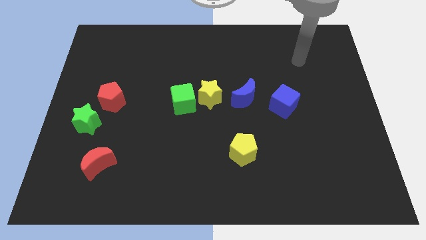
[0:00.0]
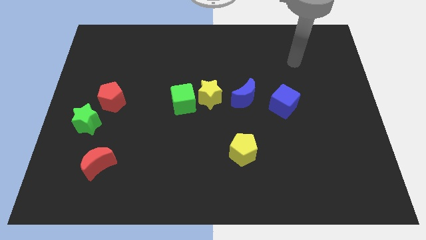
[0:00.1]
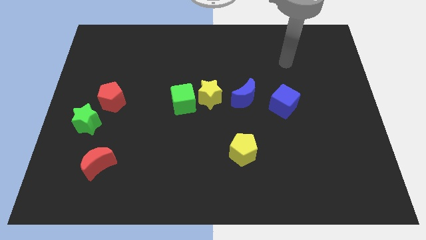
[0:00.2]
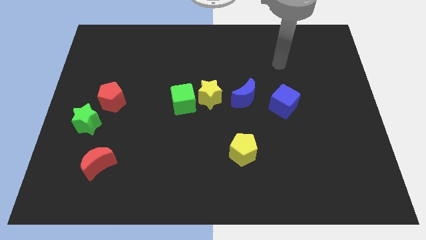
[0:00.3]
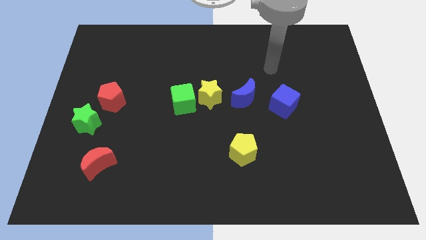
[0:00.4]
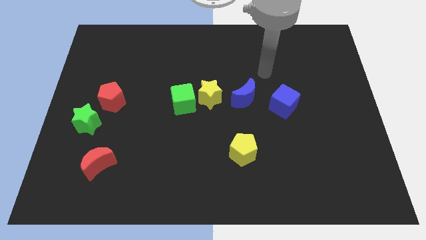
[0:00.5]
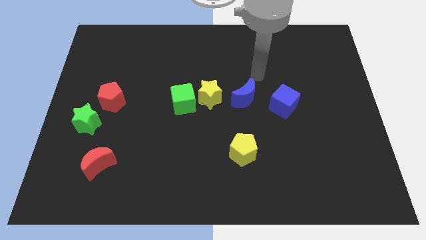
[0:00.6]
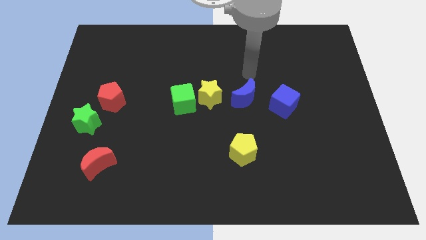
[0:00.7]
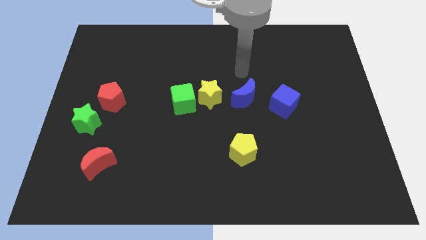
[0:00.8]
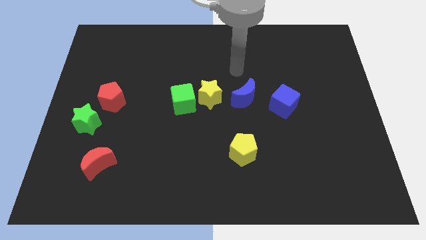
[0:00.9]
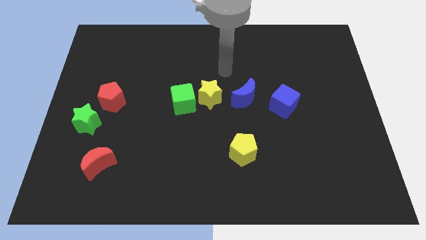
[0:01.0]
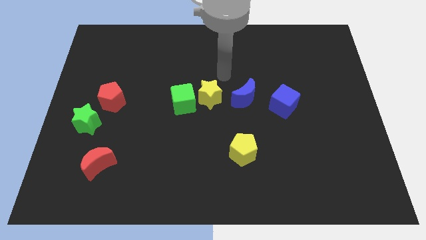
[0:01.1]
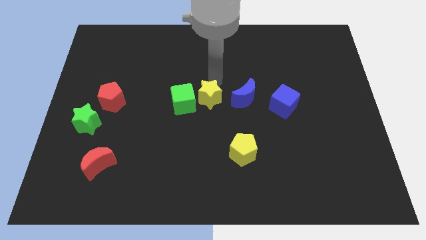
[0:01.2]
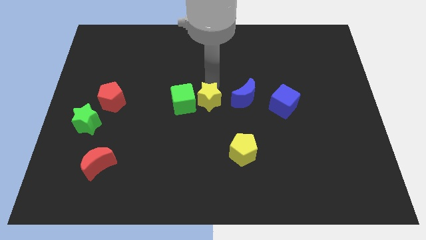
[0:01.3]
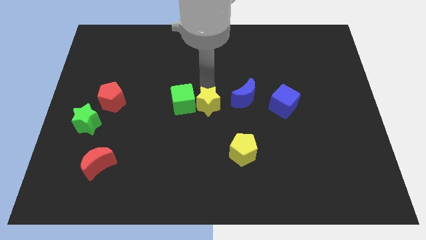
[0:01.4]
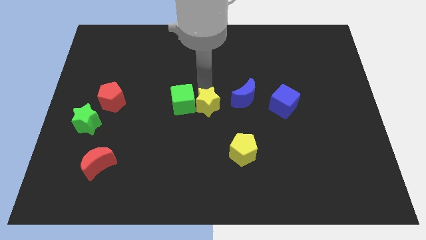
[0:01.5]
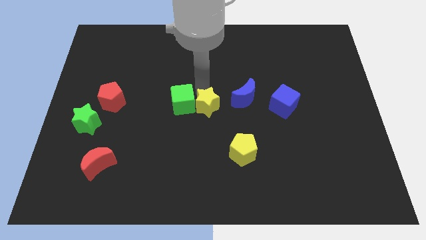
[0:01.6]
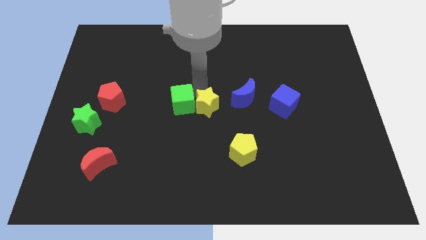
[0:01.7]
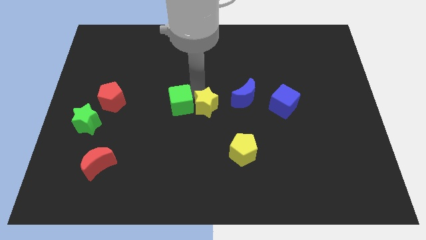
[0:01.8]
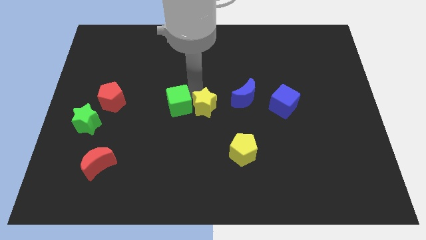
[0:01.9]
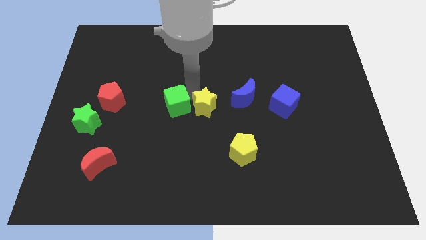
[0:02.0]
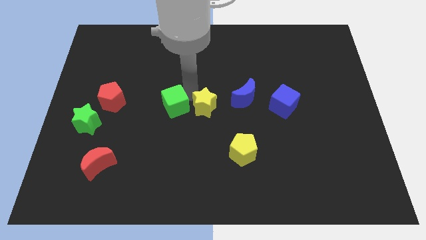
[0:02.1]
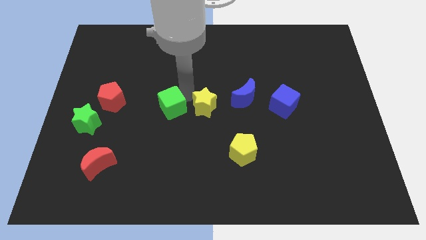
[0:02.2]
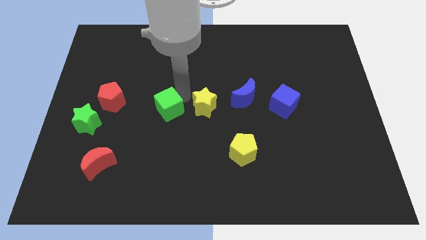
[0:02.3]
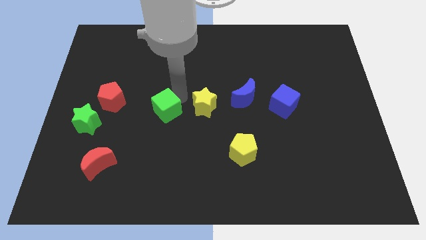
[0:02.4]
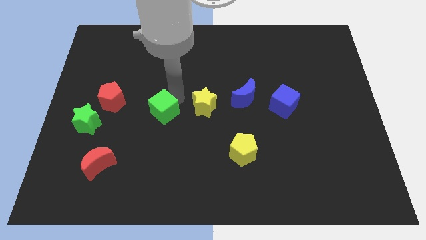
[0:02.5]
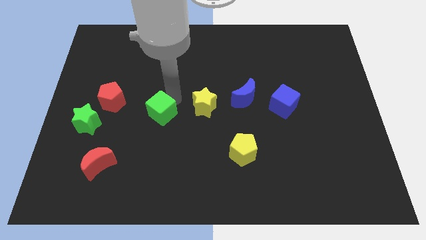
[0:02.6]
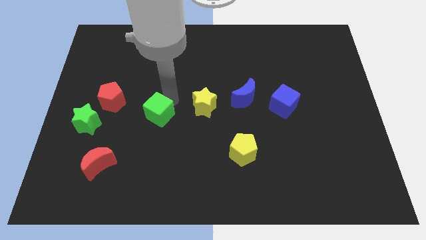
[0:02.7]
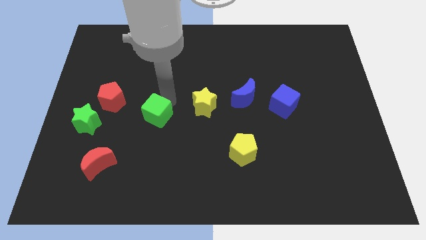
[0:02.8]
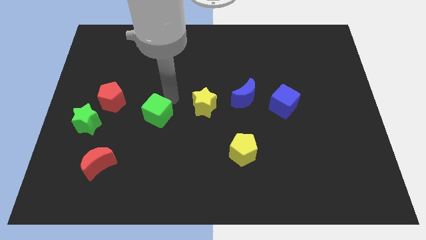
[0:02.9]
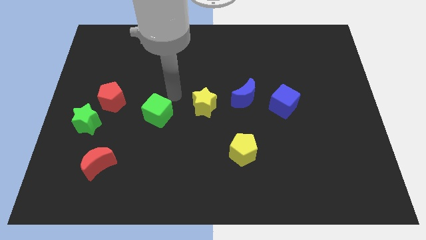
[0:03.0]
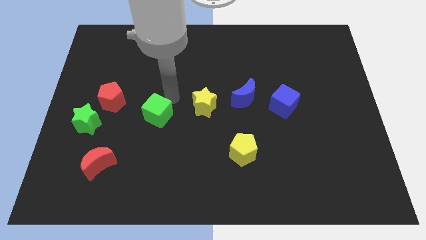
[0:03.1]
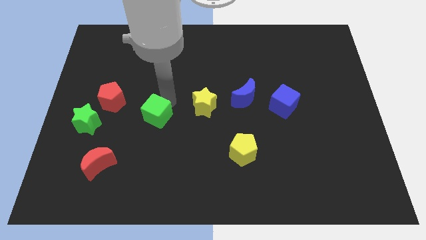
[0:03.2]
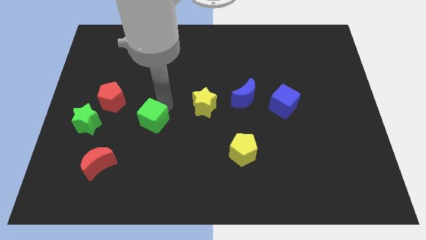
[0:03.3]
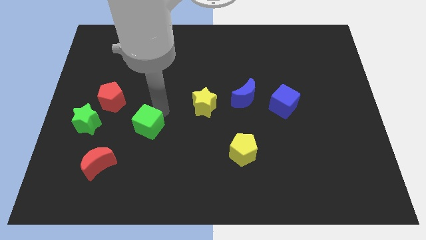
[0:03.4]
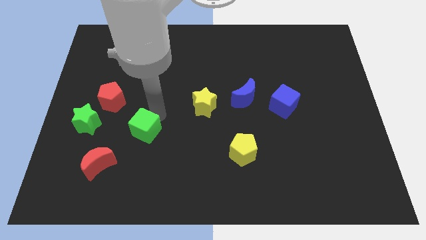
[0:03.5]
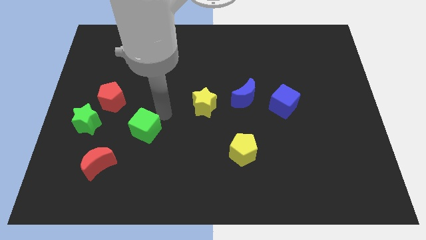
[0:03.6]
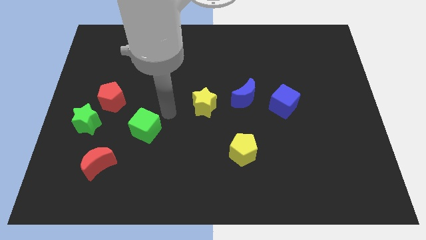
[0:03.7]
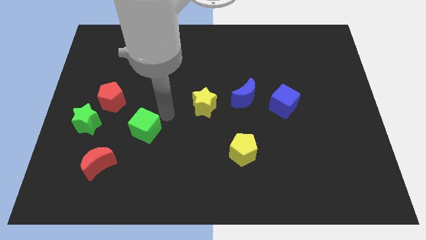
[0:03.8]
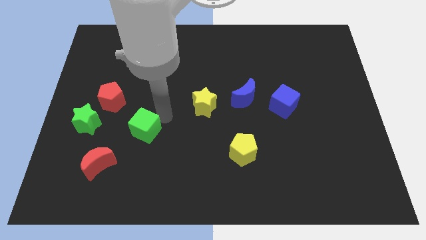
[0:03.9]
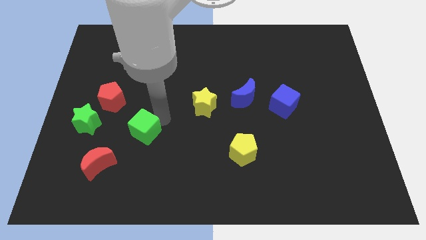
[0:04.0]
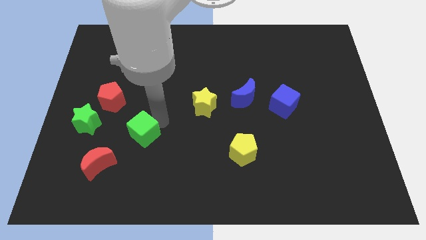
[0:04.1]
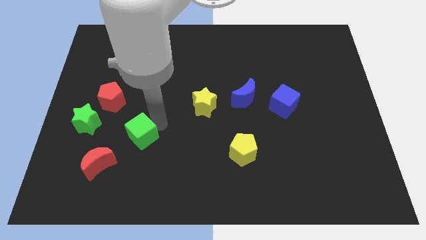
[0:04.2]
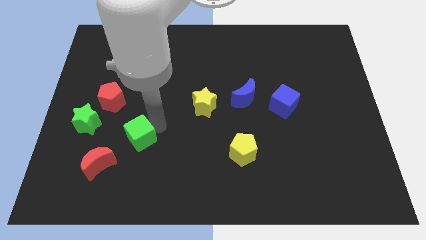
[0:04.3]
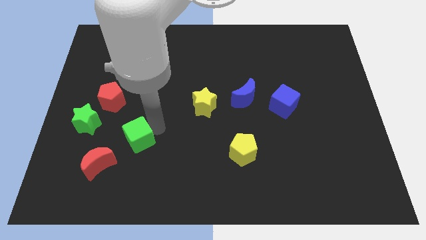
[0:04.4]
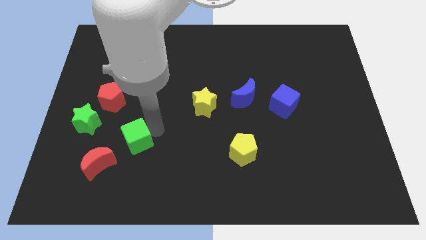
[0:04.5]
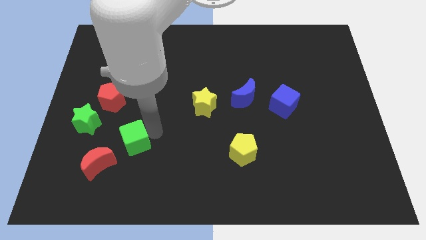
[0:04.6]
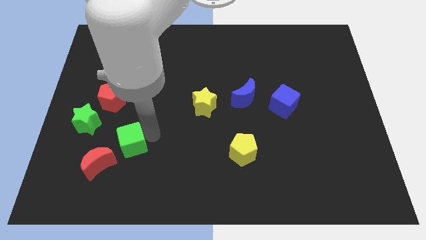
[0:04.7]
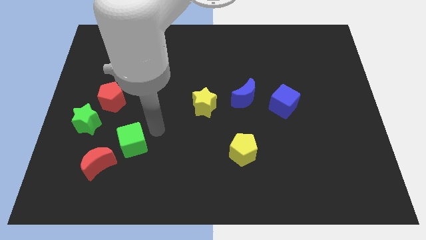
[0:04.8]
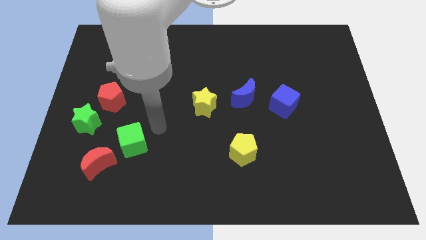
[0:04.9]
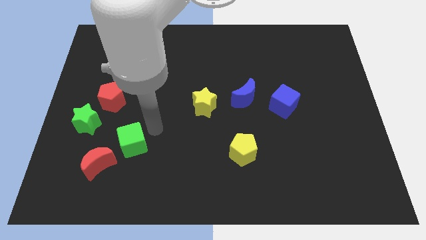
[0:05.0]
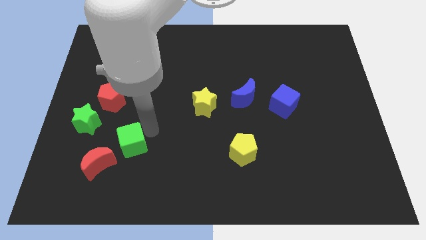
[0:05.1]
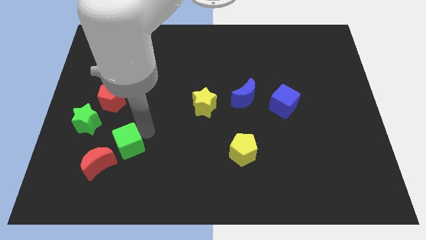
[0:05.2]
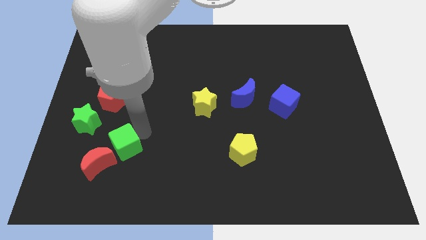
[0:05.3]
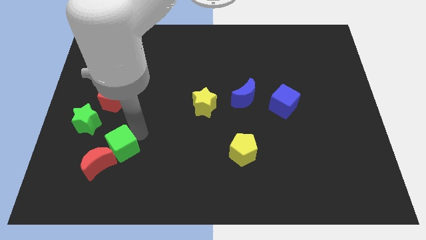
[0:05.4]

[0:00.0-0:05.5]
push the green cube next to the red moon

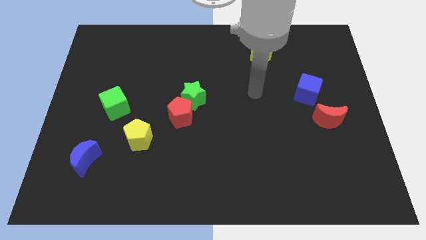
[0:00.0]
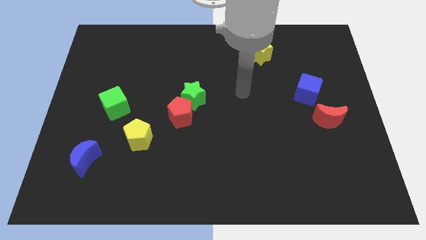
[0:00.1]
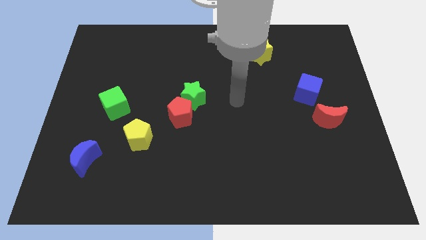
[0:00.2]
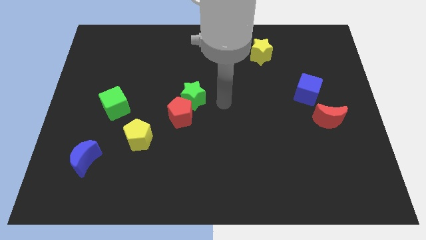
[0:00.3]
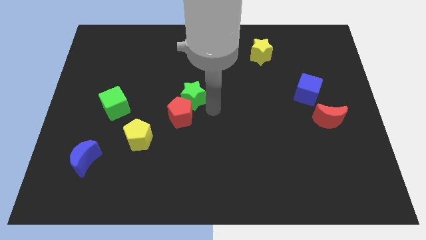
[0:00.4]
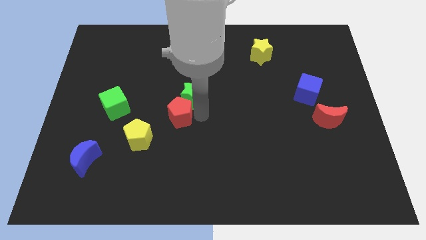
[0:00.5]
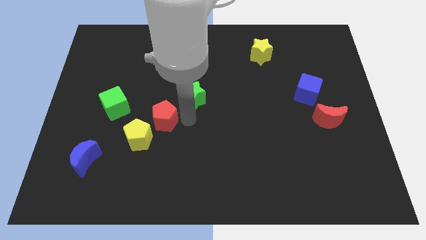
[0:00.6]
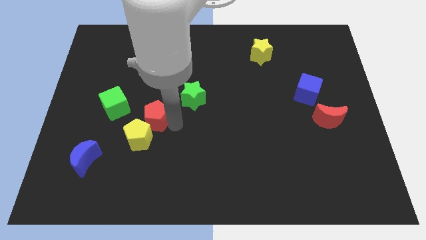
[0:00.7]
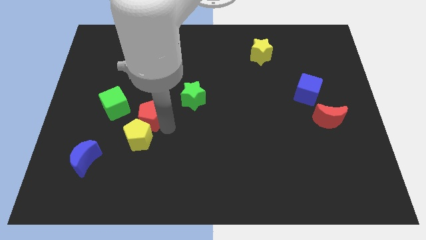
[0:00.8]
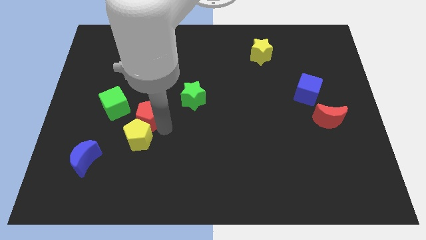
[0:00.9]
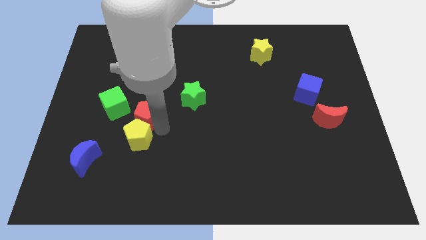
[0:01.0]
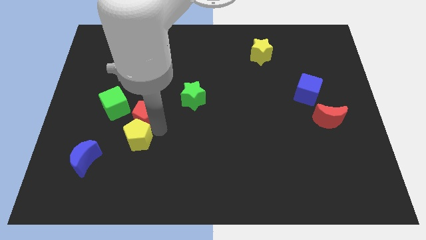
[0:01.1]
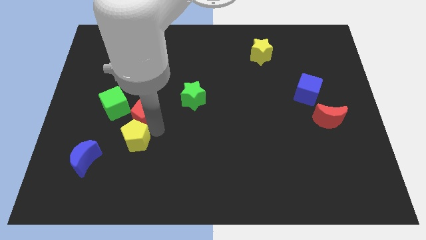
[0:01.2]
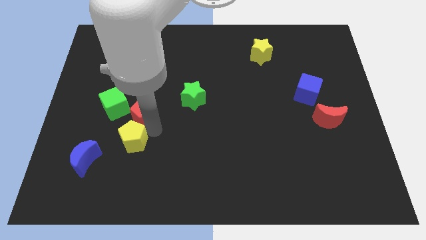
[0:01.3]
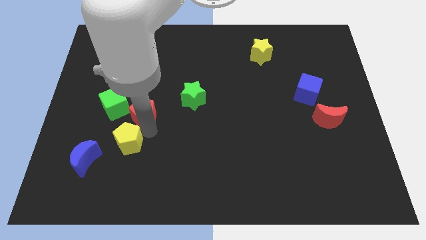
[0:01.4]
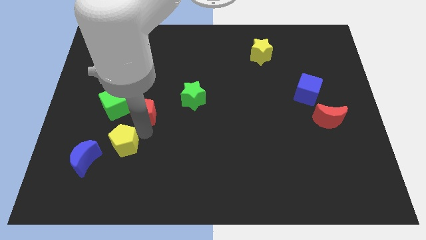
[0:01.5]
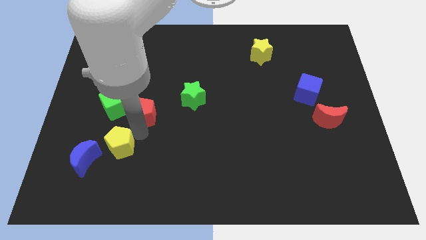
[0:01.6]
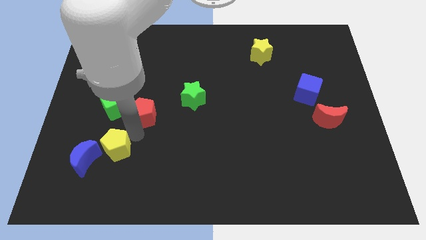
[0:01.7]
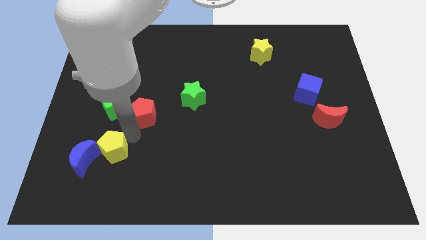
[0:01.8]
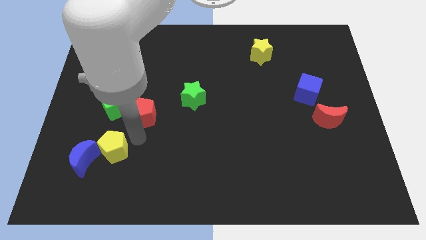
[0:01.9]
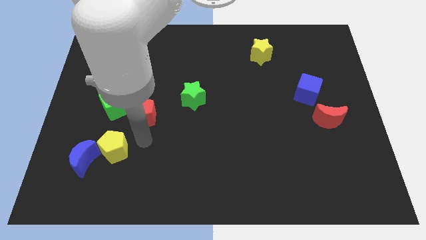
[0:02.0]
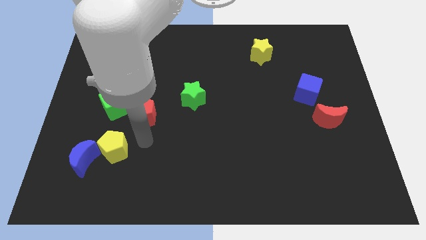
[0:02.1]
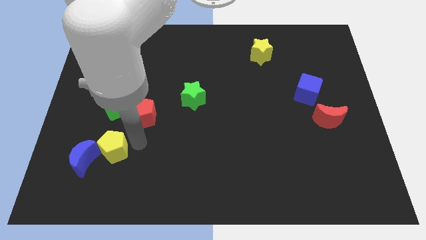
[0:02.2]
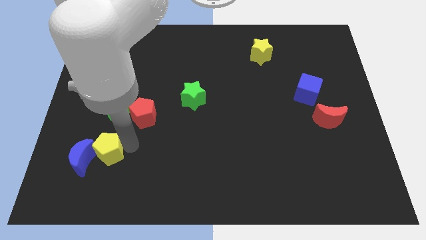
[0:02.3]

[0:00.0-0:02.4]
move the yellow pentagon towards the blue moon
